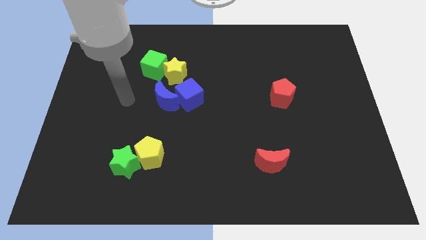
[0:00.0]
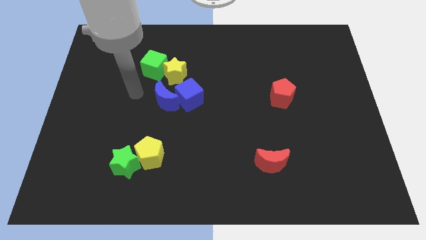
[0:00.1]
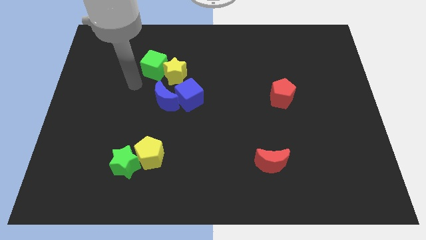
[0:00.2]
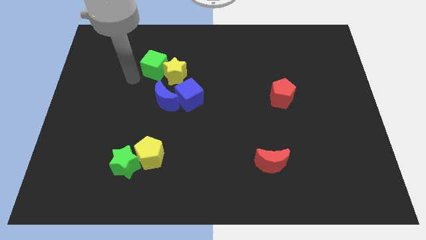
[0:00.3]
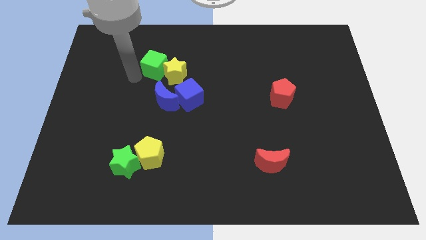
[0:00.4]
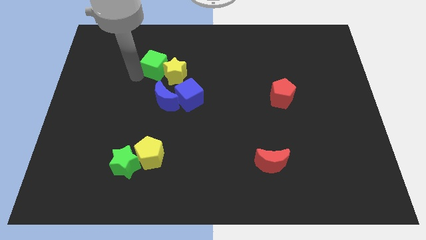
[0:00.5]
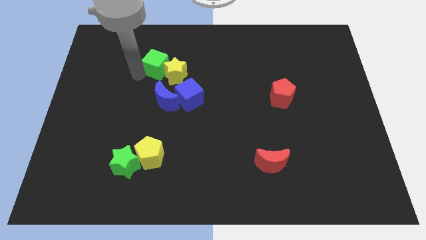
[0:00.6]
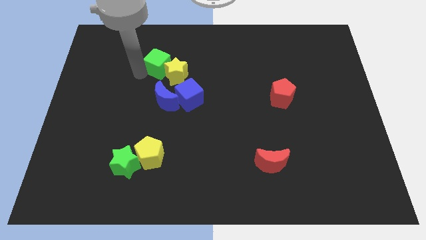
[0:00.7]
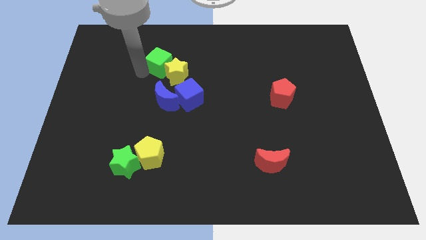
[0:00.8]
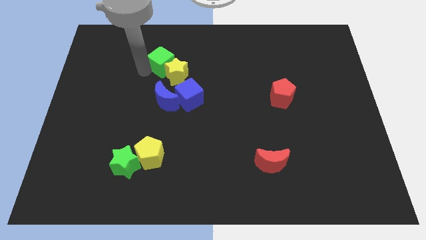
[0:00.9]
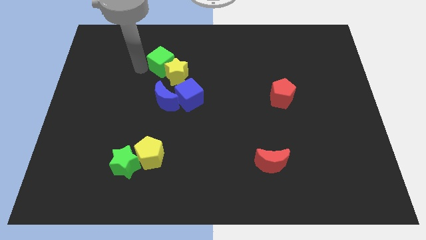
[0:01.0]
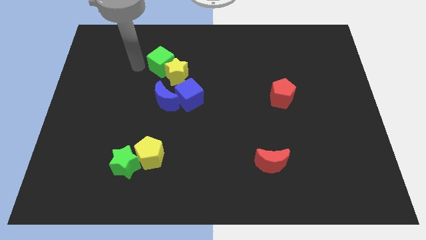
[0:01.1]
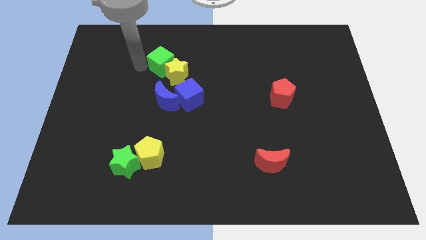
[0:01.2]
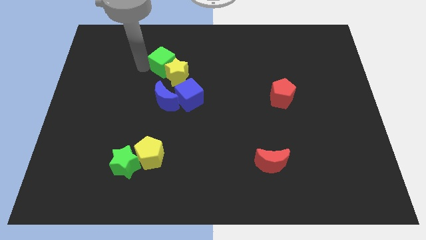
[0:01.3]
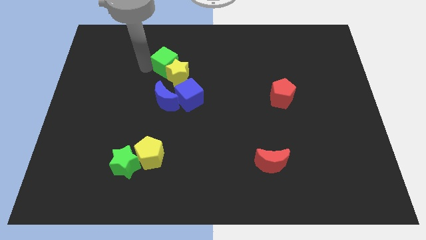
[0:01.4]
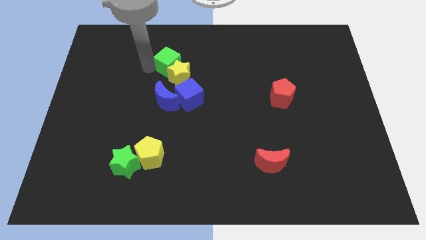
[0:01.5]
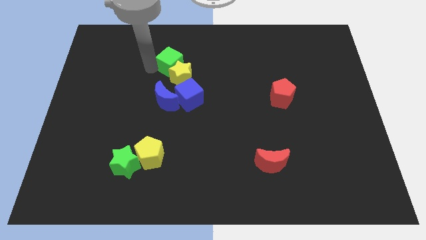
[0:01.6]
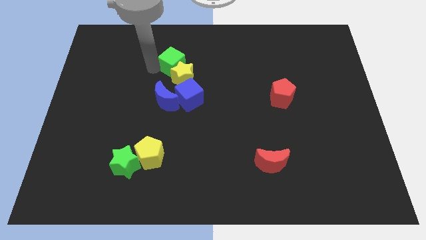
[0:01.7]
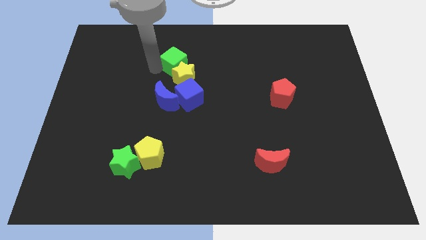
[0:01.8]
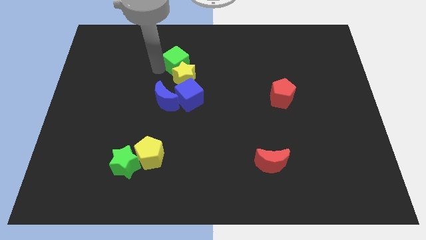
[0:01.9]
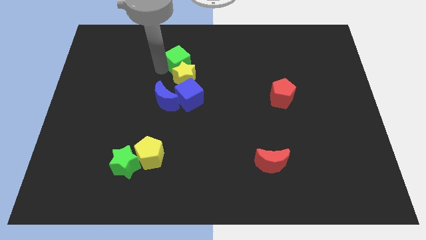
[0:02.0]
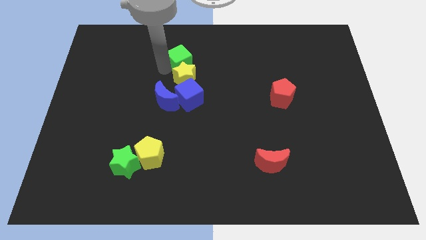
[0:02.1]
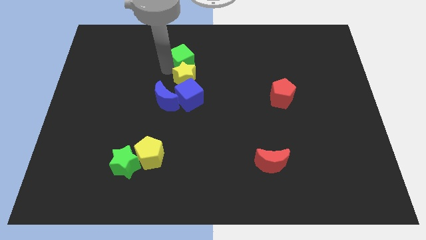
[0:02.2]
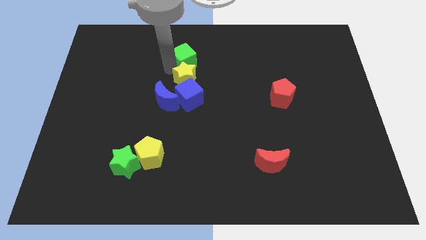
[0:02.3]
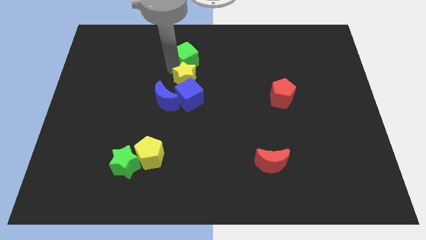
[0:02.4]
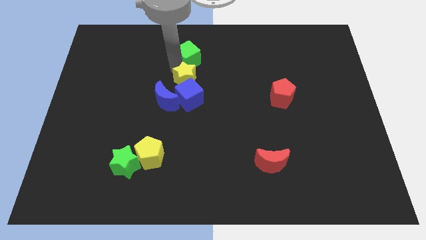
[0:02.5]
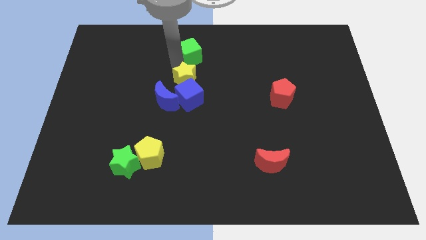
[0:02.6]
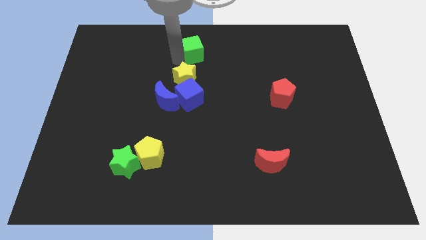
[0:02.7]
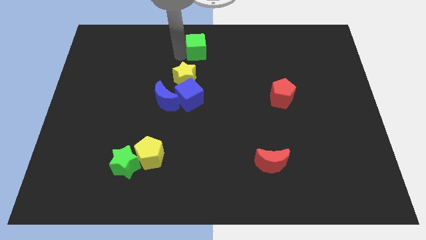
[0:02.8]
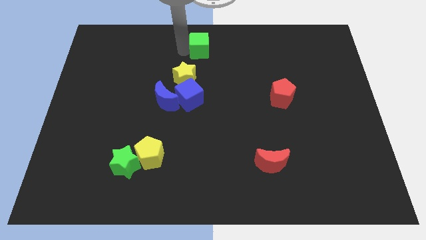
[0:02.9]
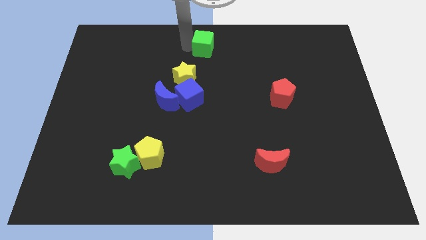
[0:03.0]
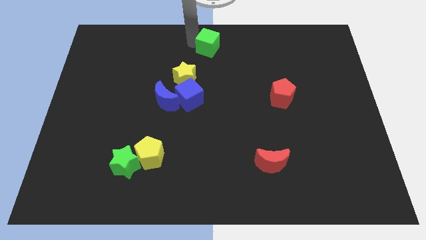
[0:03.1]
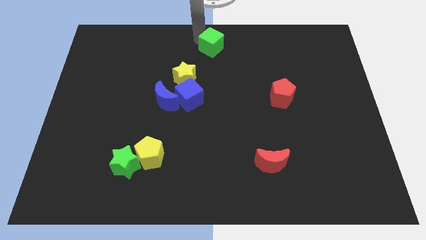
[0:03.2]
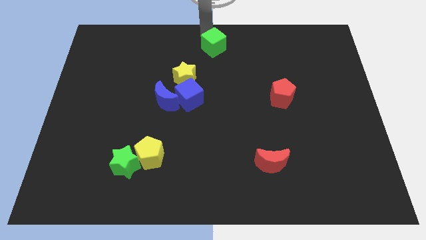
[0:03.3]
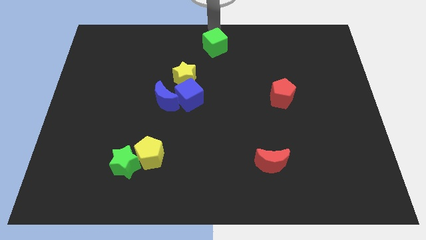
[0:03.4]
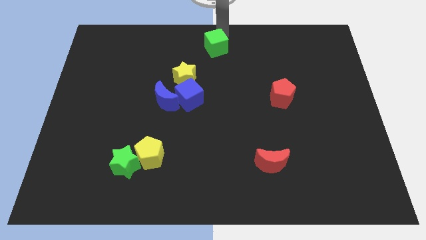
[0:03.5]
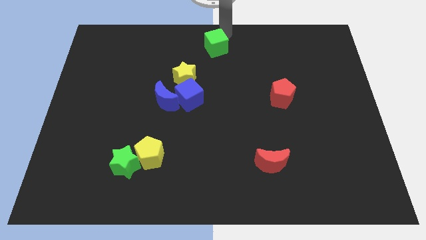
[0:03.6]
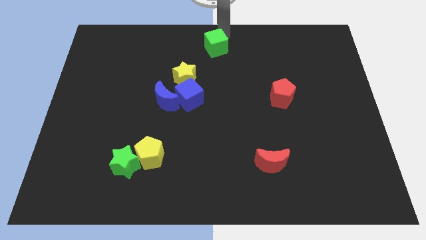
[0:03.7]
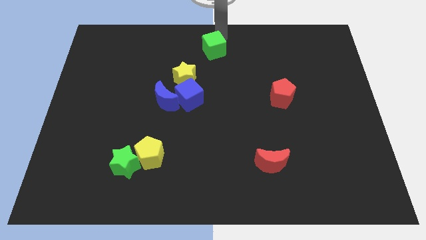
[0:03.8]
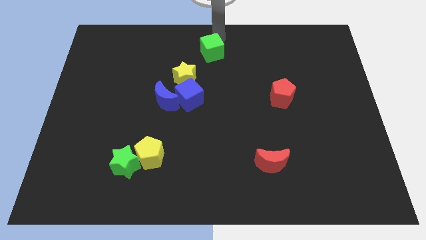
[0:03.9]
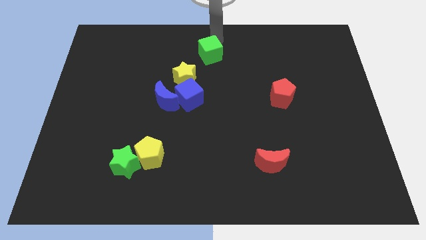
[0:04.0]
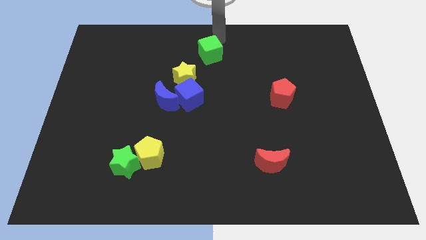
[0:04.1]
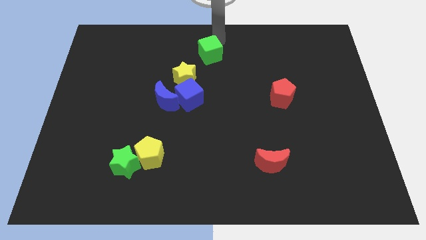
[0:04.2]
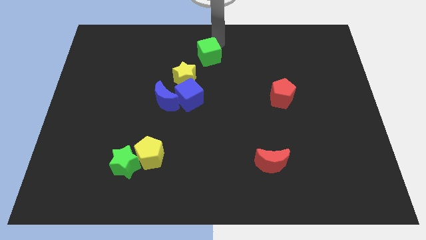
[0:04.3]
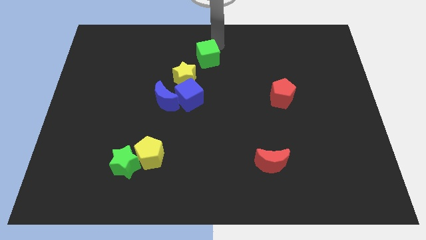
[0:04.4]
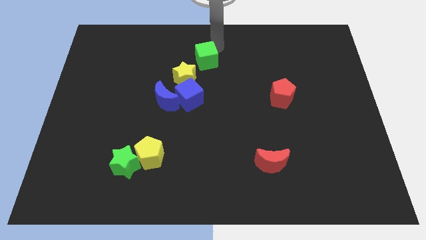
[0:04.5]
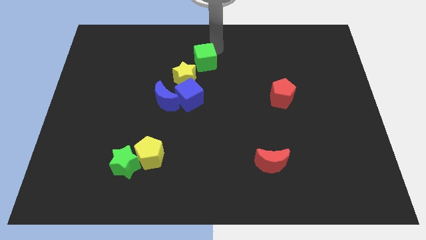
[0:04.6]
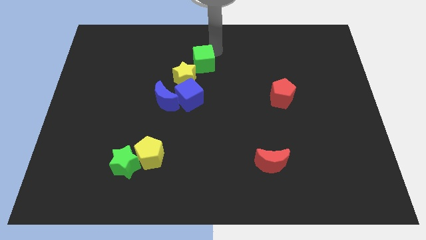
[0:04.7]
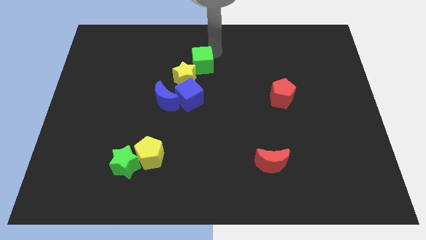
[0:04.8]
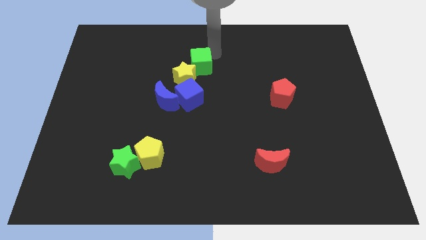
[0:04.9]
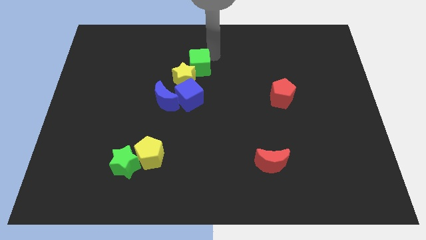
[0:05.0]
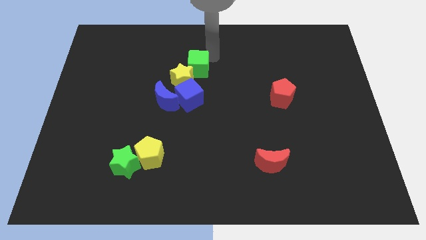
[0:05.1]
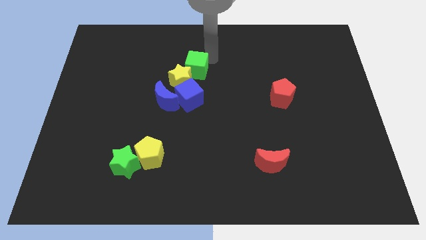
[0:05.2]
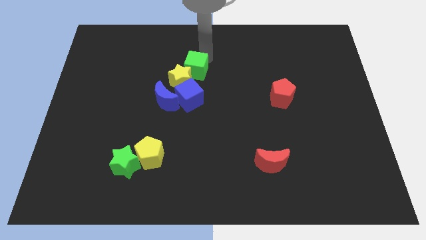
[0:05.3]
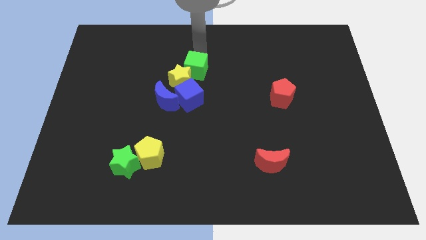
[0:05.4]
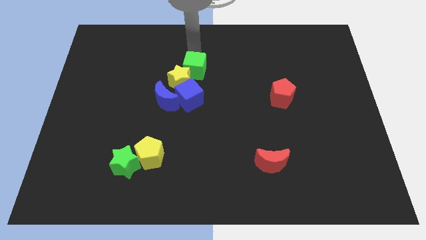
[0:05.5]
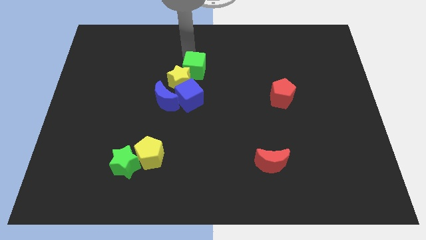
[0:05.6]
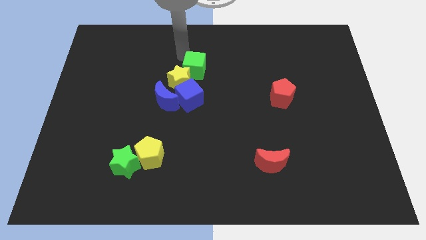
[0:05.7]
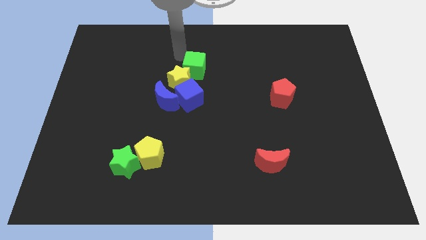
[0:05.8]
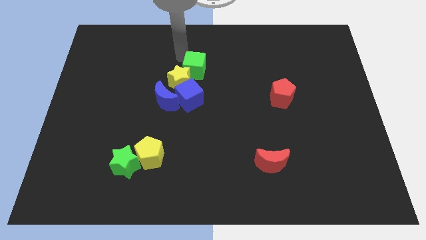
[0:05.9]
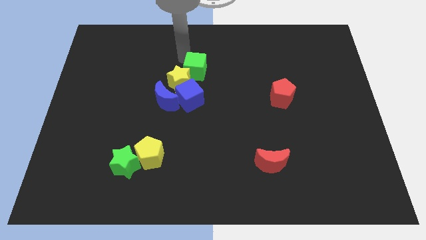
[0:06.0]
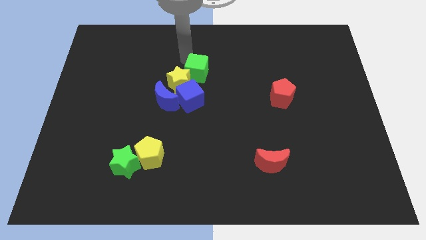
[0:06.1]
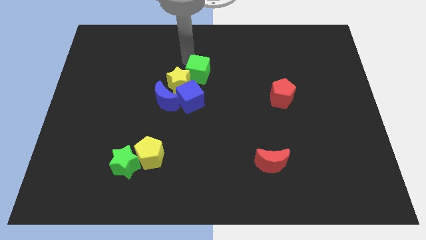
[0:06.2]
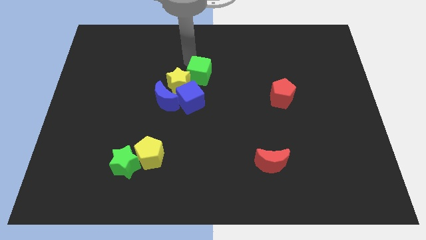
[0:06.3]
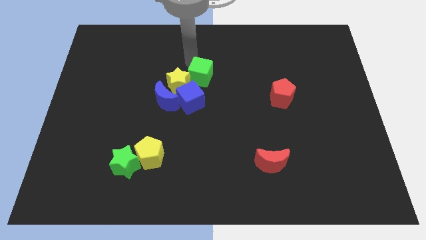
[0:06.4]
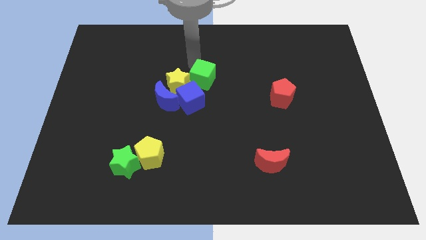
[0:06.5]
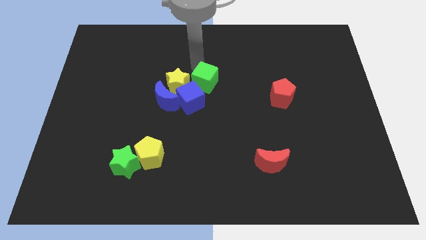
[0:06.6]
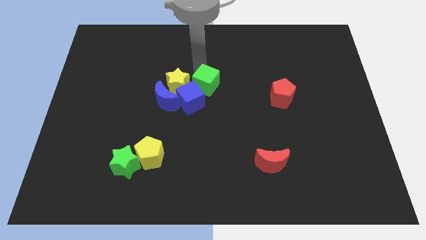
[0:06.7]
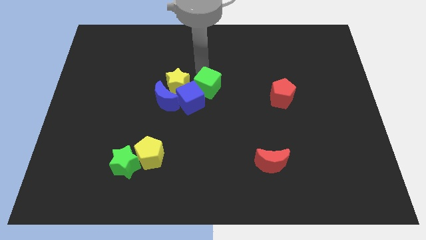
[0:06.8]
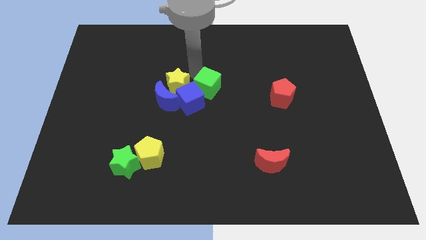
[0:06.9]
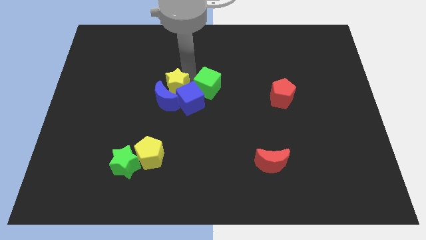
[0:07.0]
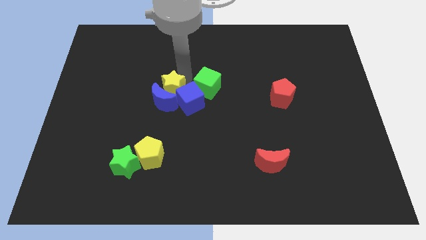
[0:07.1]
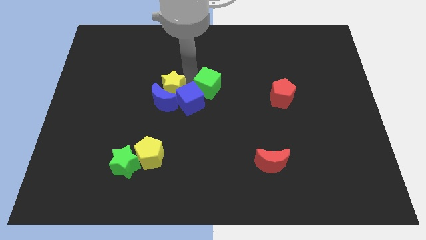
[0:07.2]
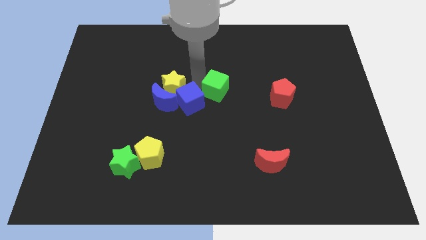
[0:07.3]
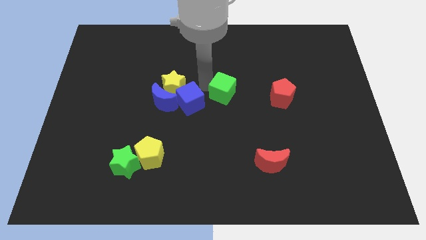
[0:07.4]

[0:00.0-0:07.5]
push the green cube left of the red pentagon
